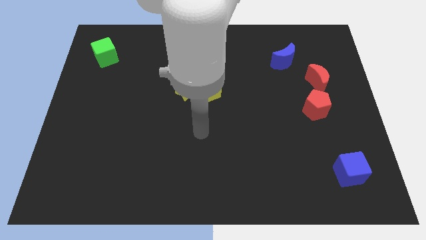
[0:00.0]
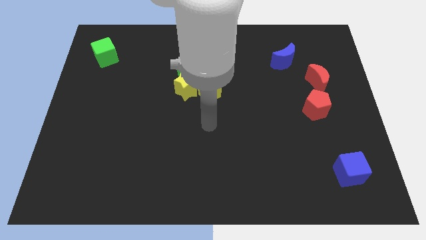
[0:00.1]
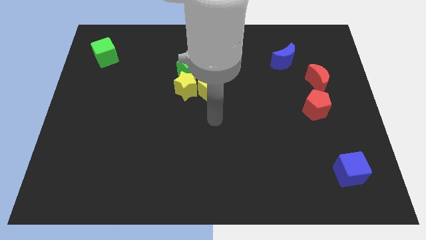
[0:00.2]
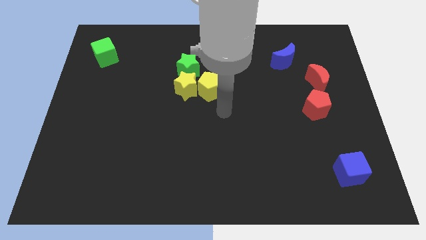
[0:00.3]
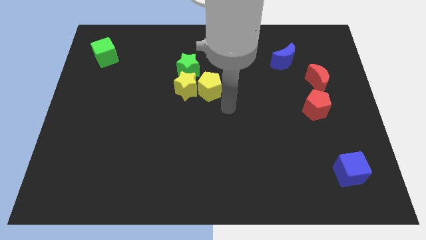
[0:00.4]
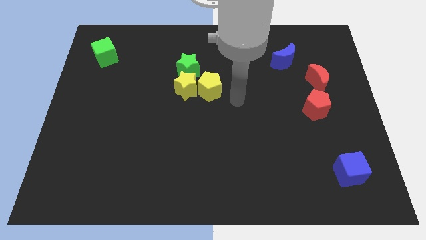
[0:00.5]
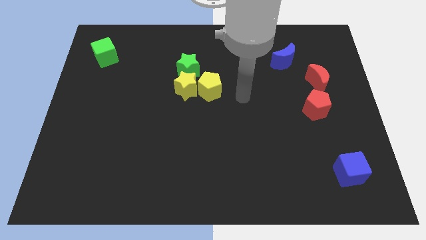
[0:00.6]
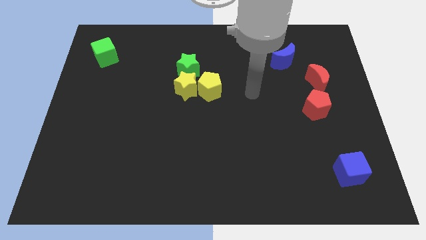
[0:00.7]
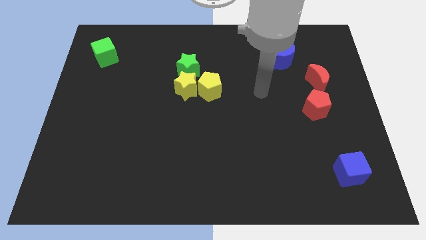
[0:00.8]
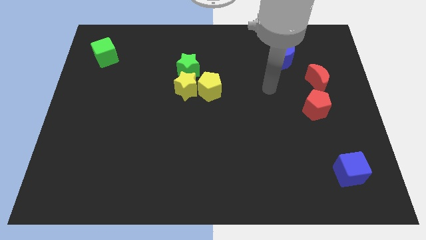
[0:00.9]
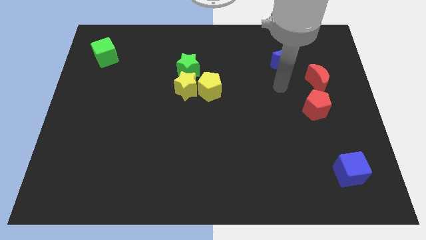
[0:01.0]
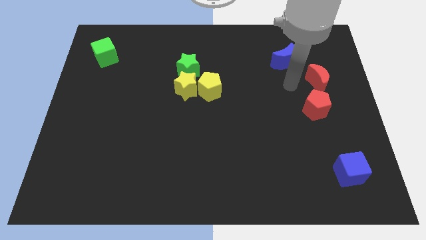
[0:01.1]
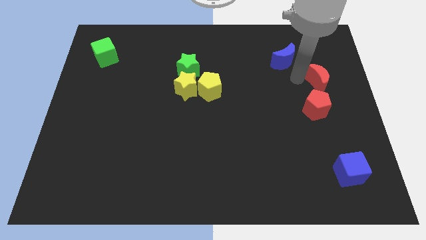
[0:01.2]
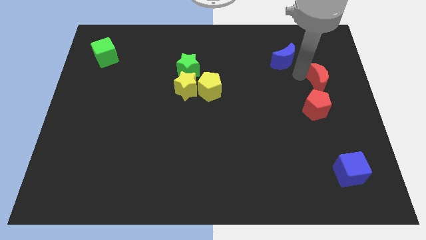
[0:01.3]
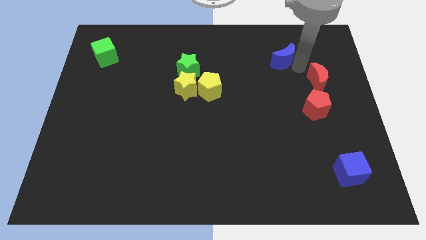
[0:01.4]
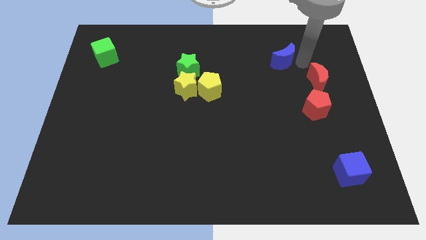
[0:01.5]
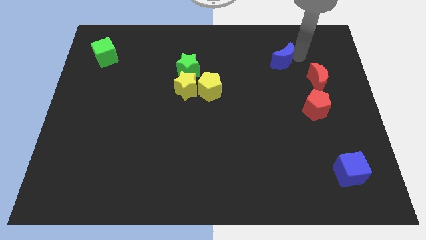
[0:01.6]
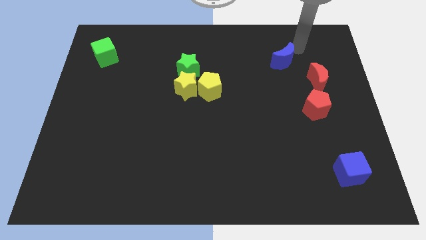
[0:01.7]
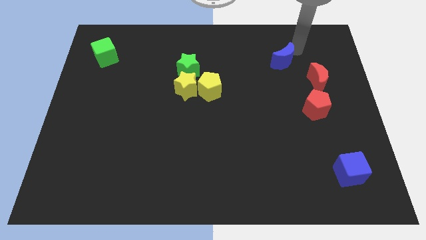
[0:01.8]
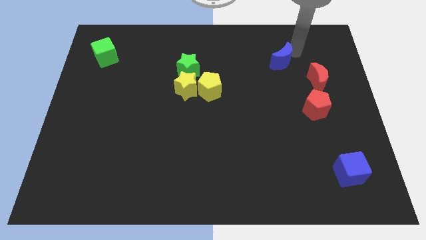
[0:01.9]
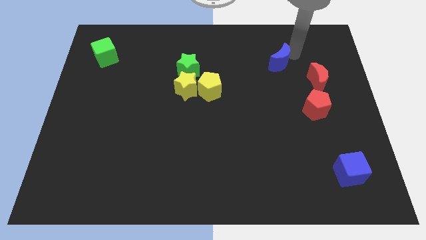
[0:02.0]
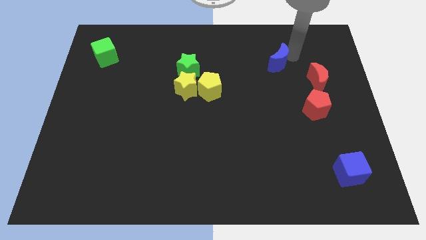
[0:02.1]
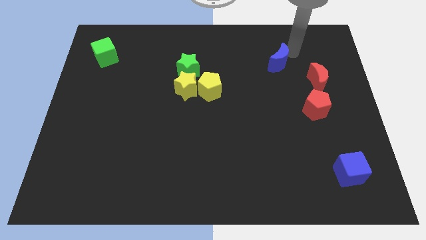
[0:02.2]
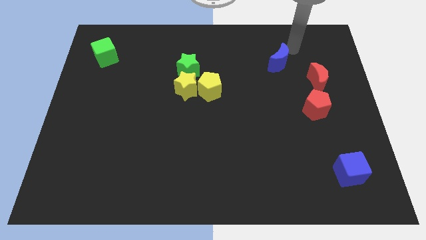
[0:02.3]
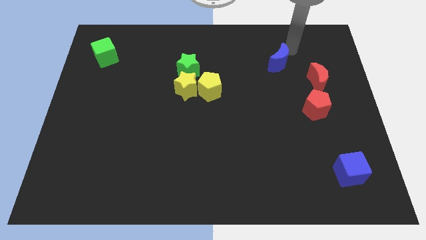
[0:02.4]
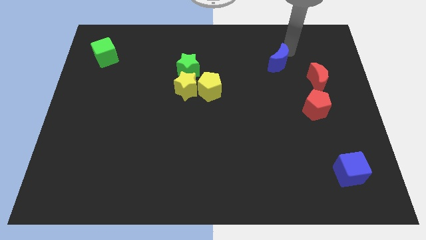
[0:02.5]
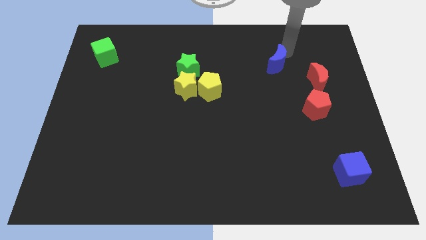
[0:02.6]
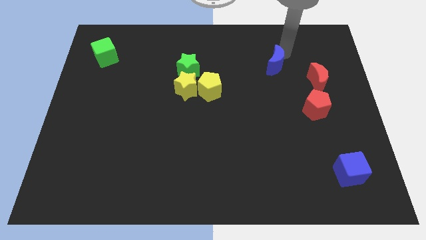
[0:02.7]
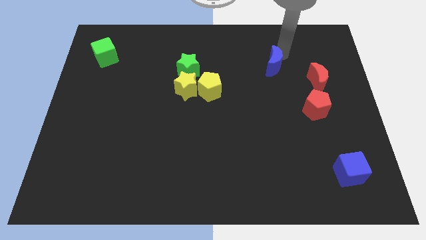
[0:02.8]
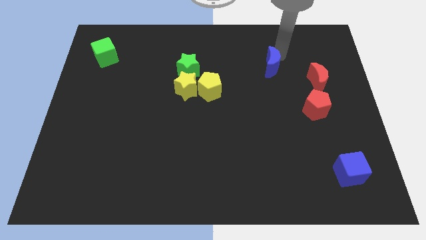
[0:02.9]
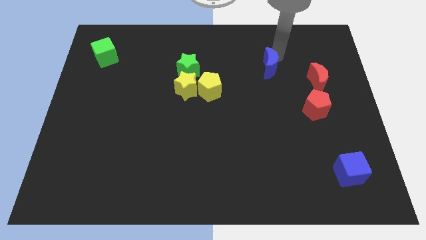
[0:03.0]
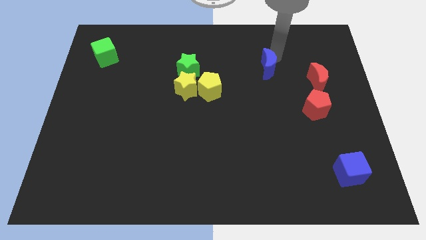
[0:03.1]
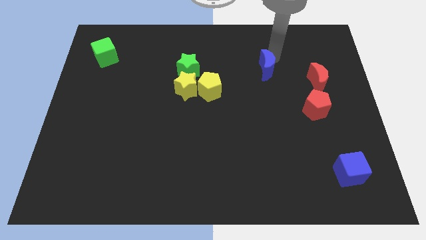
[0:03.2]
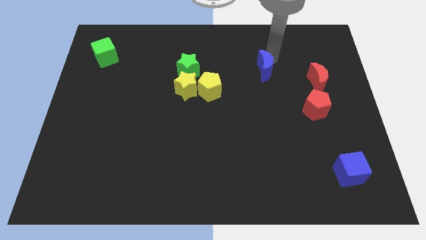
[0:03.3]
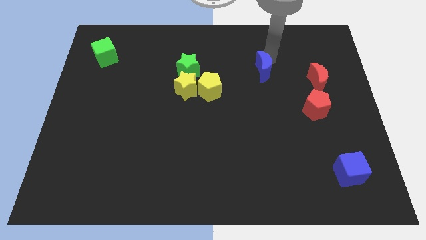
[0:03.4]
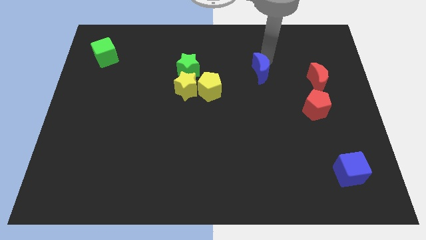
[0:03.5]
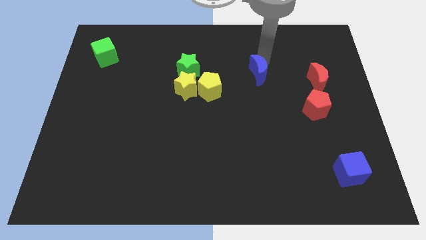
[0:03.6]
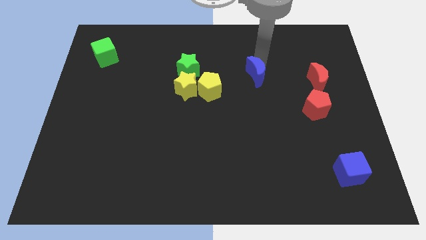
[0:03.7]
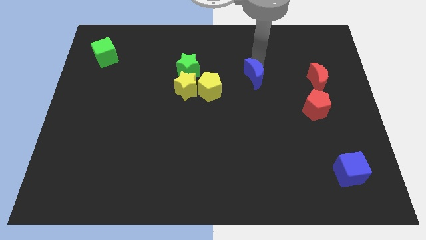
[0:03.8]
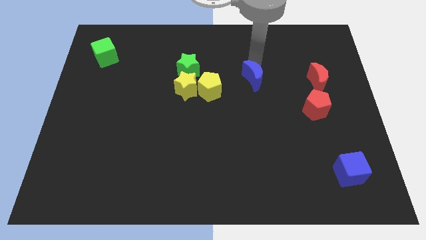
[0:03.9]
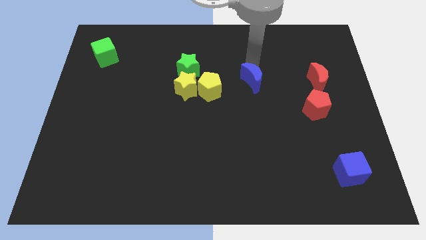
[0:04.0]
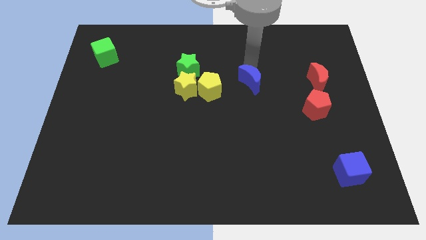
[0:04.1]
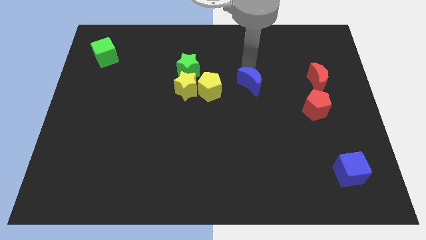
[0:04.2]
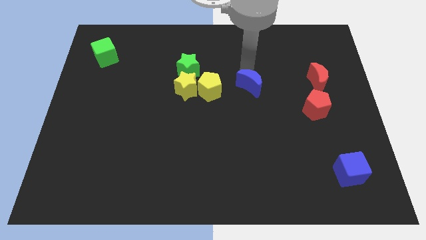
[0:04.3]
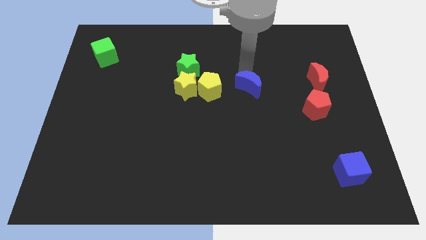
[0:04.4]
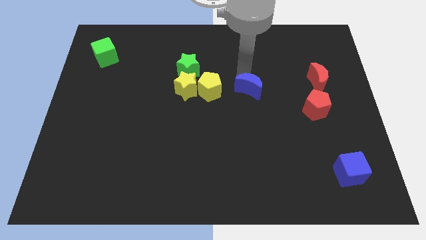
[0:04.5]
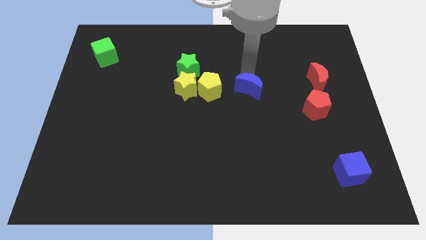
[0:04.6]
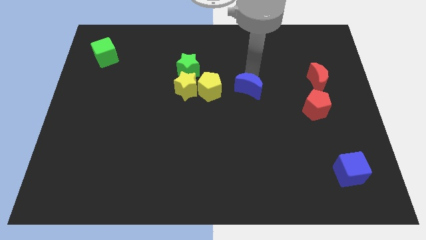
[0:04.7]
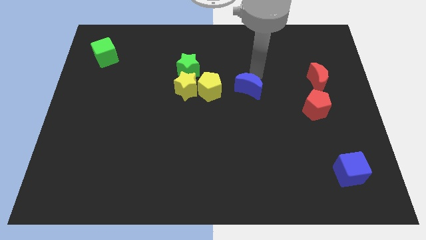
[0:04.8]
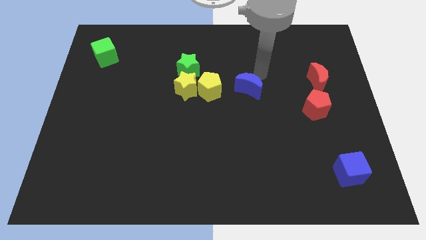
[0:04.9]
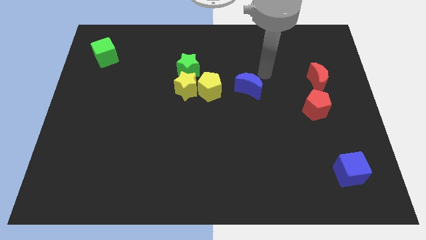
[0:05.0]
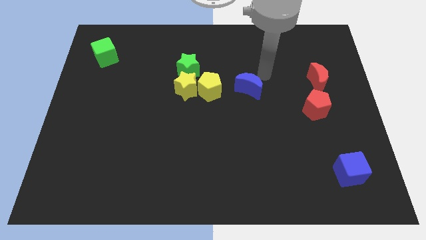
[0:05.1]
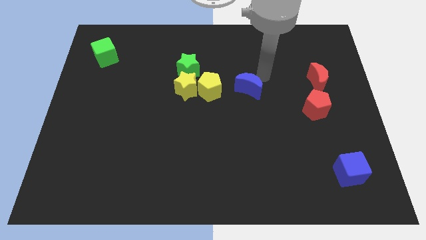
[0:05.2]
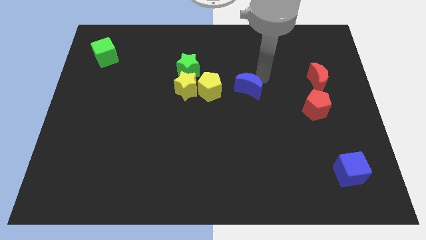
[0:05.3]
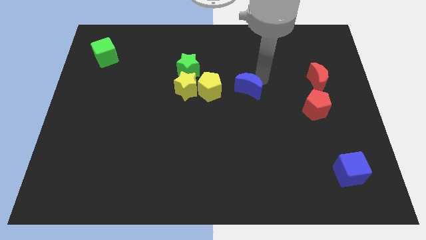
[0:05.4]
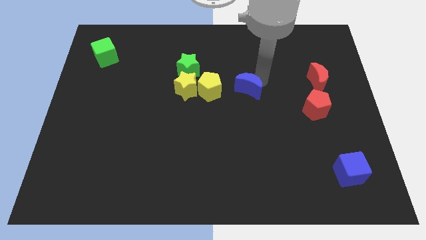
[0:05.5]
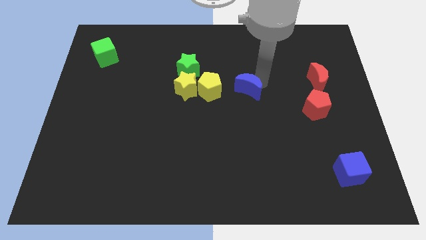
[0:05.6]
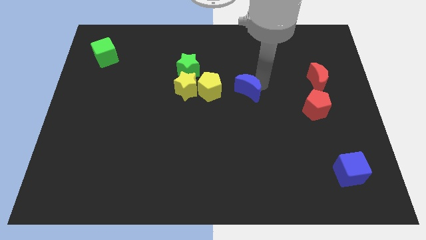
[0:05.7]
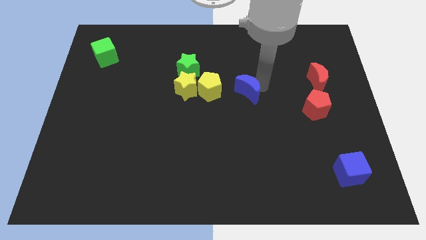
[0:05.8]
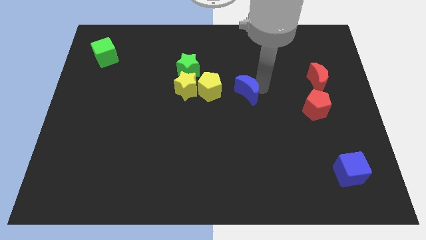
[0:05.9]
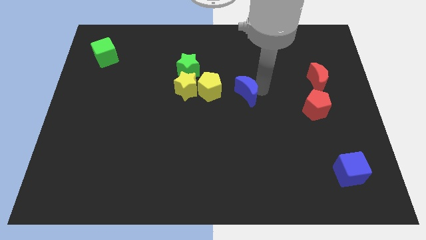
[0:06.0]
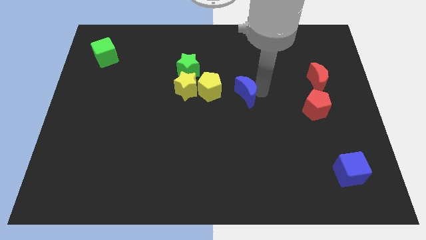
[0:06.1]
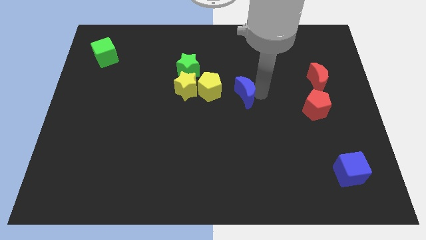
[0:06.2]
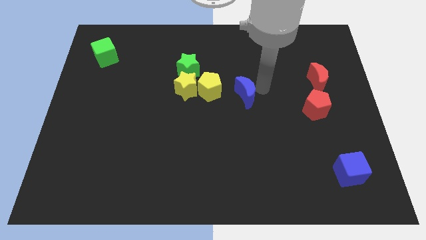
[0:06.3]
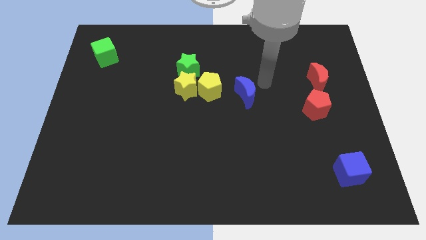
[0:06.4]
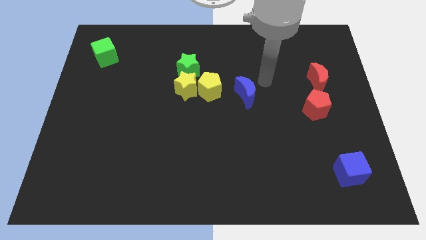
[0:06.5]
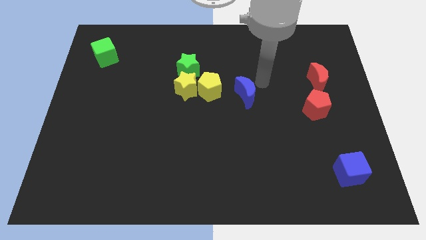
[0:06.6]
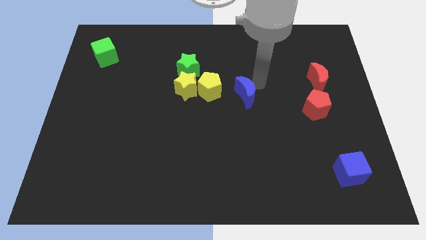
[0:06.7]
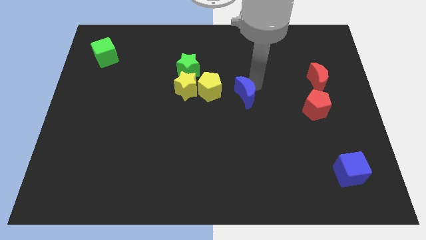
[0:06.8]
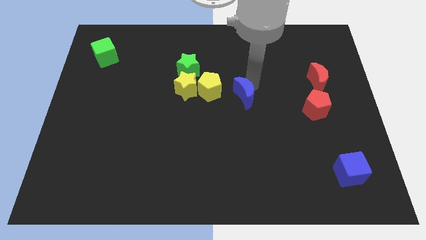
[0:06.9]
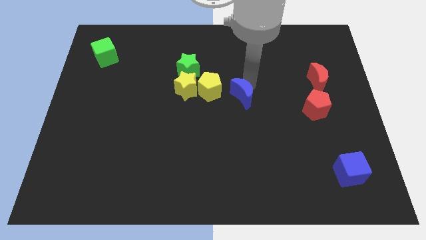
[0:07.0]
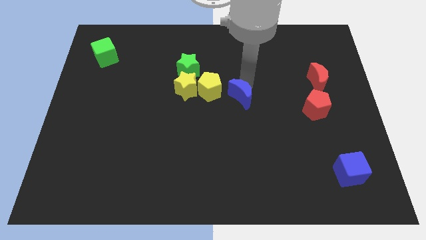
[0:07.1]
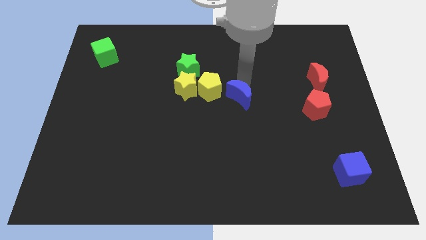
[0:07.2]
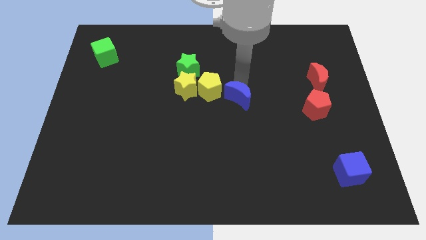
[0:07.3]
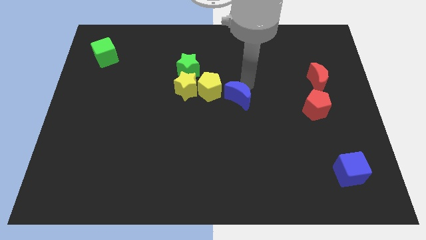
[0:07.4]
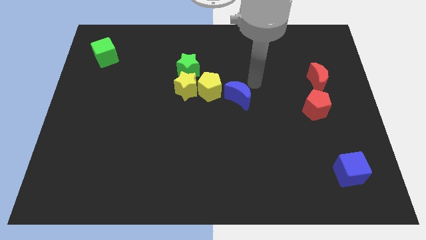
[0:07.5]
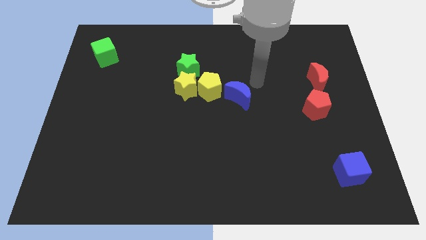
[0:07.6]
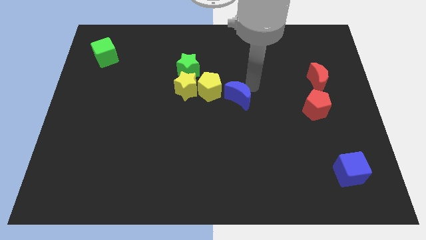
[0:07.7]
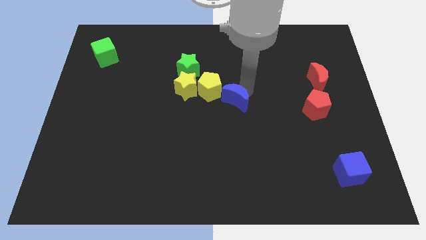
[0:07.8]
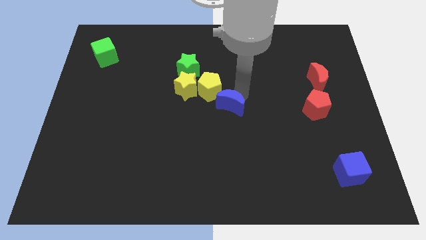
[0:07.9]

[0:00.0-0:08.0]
move the blue moon down and then to the left

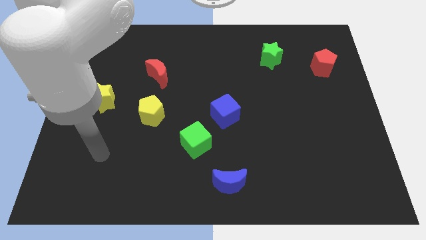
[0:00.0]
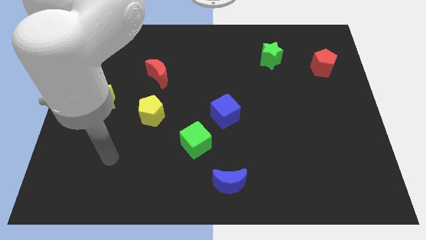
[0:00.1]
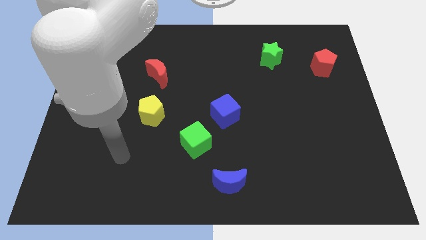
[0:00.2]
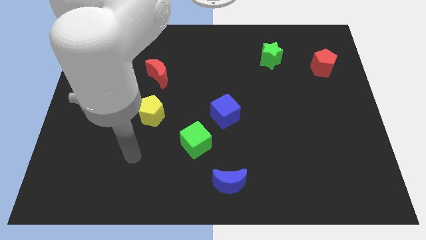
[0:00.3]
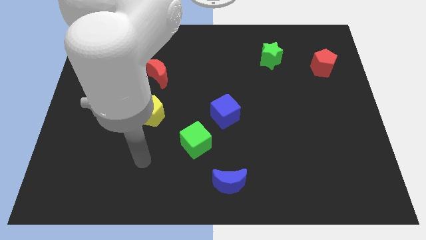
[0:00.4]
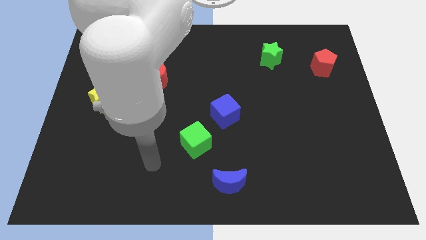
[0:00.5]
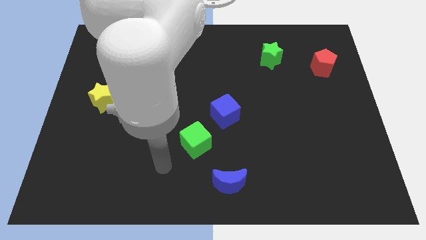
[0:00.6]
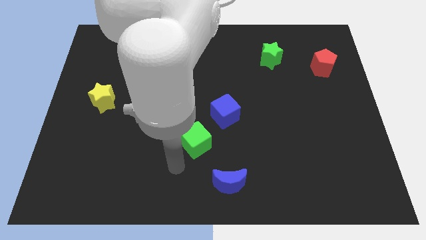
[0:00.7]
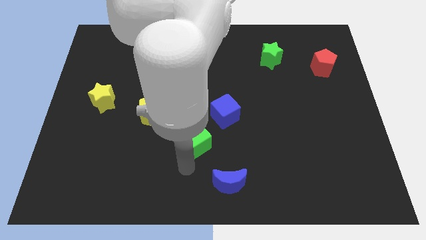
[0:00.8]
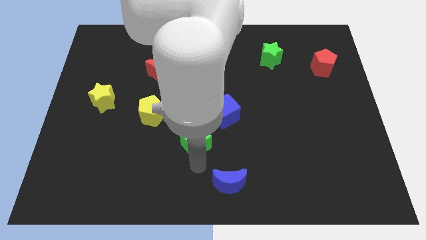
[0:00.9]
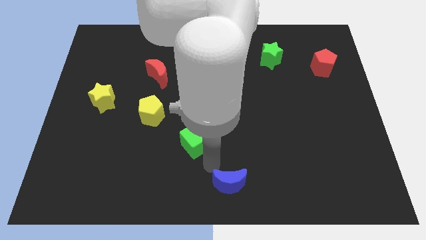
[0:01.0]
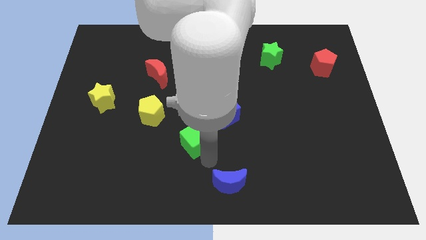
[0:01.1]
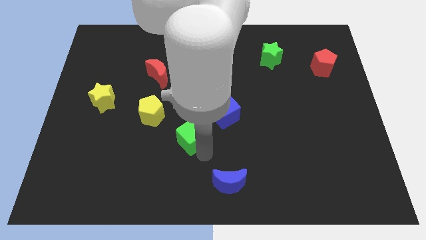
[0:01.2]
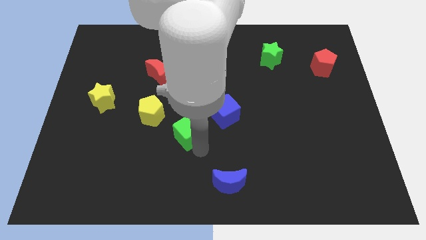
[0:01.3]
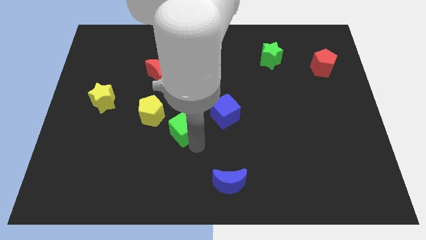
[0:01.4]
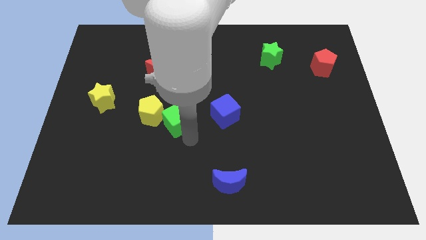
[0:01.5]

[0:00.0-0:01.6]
slightly slide the green cube upwards and left
